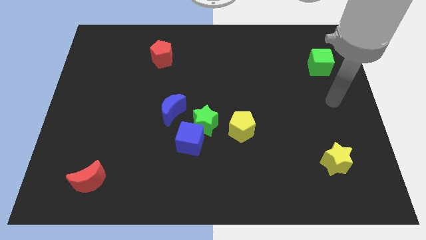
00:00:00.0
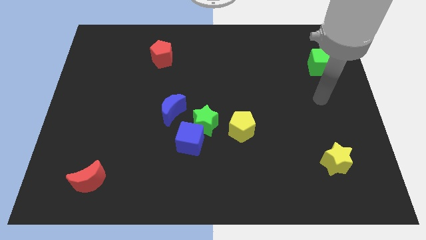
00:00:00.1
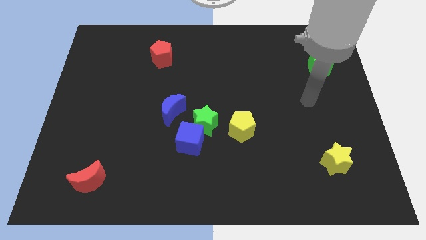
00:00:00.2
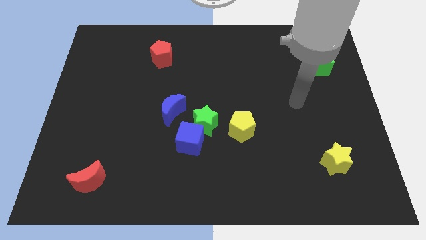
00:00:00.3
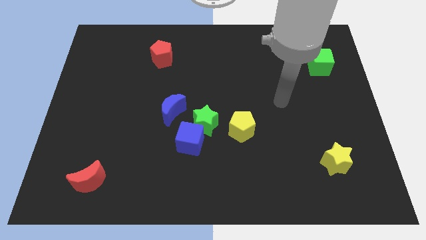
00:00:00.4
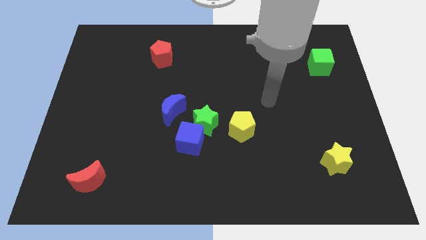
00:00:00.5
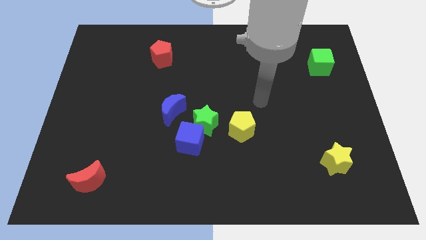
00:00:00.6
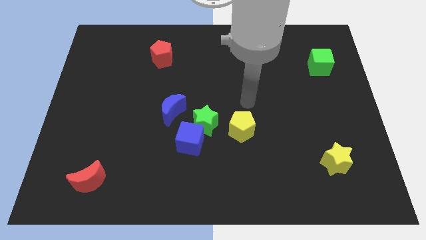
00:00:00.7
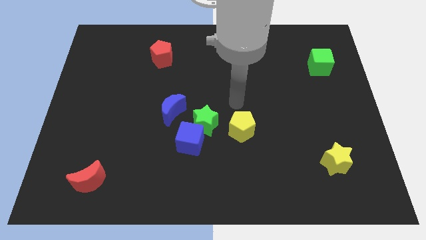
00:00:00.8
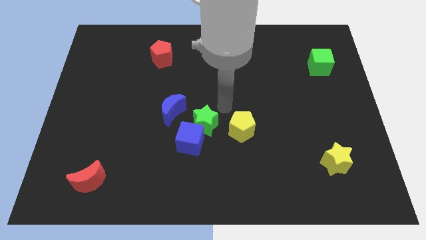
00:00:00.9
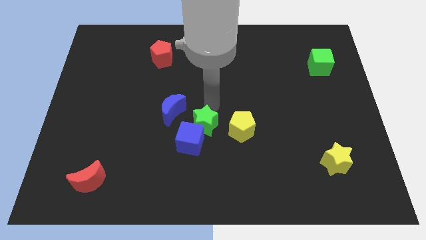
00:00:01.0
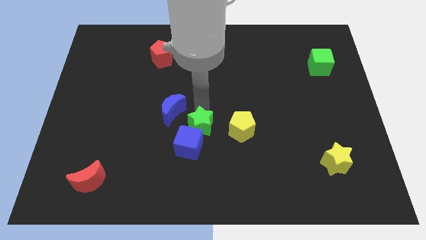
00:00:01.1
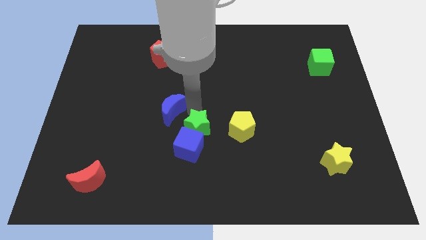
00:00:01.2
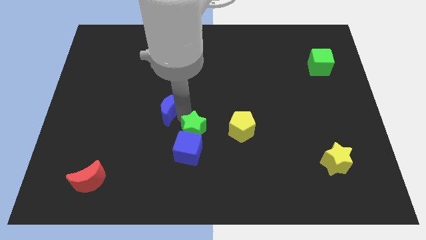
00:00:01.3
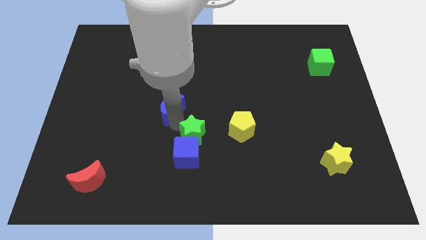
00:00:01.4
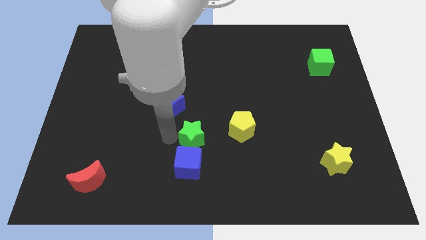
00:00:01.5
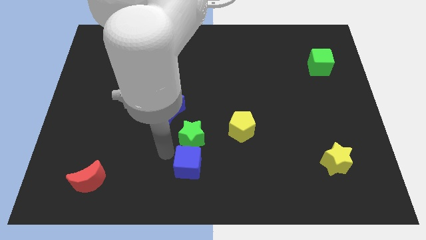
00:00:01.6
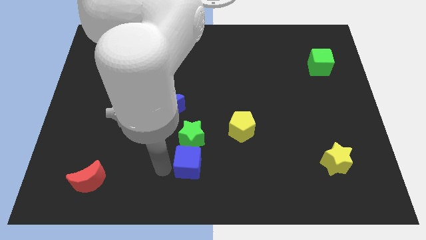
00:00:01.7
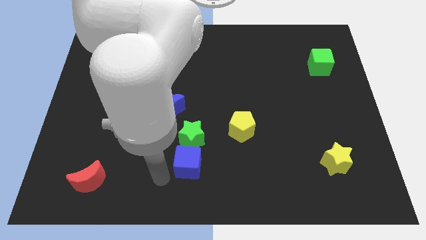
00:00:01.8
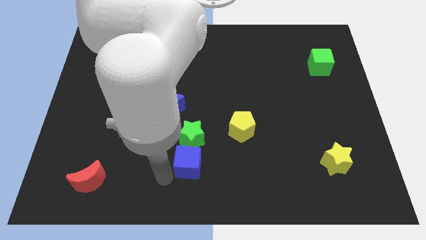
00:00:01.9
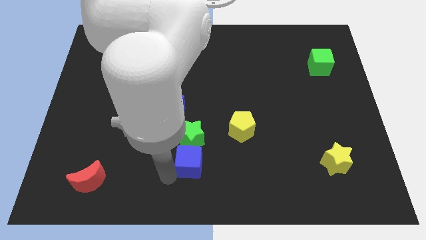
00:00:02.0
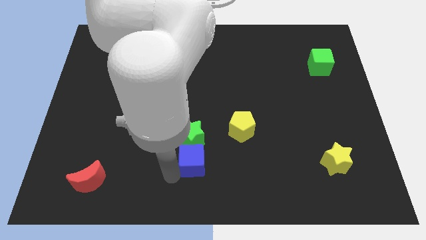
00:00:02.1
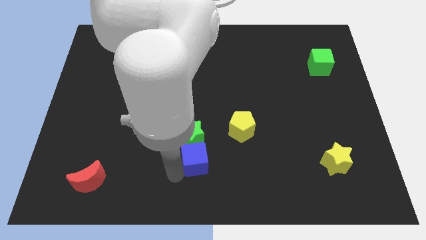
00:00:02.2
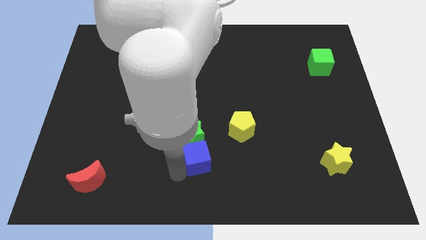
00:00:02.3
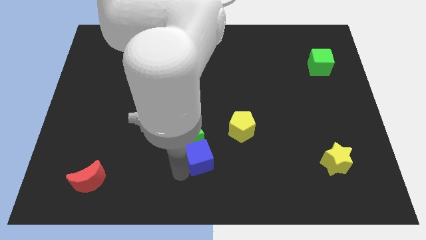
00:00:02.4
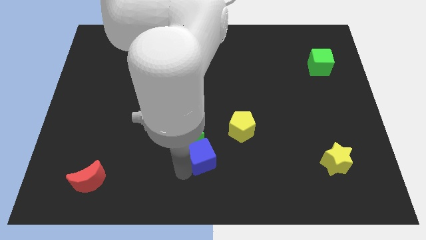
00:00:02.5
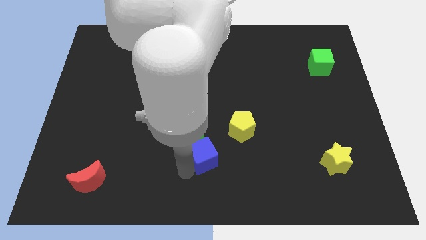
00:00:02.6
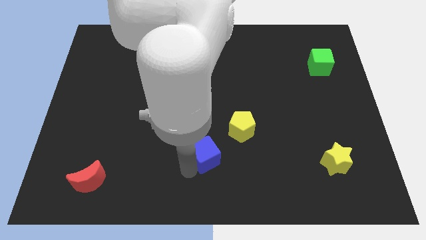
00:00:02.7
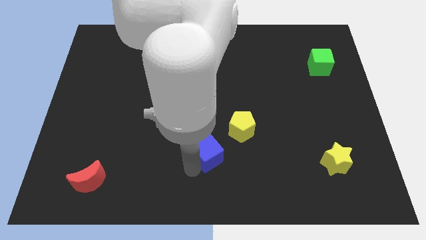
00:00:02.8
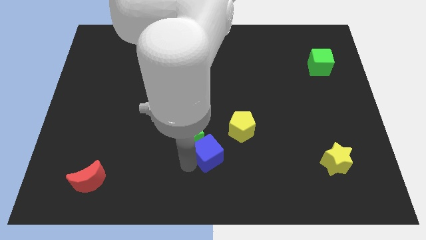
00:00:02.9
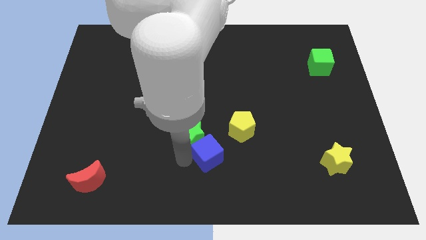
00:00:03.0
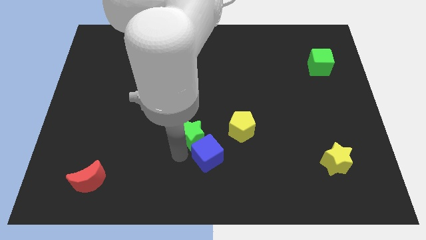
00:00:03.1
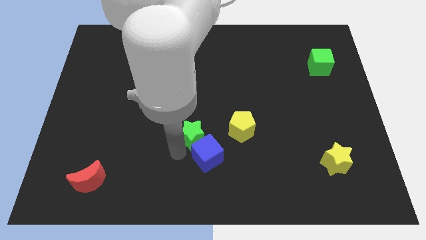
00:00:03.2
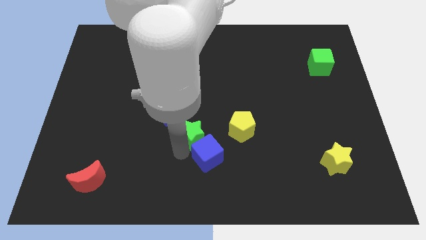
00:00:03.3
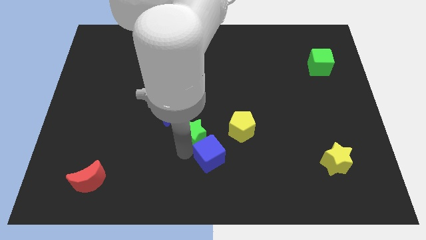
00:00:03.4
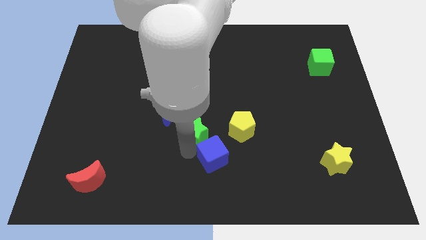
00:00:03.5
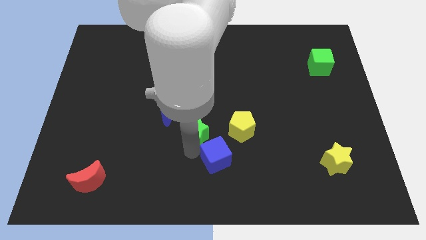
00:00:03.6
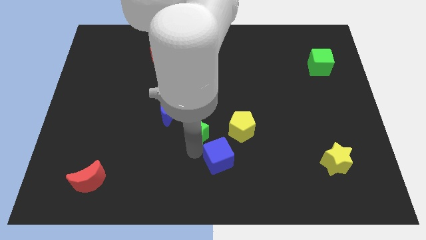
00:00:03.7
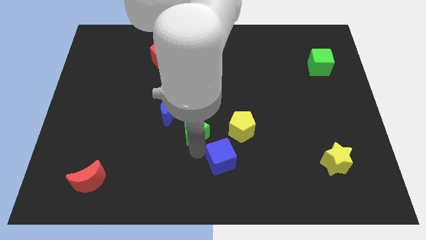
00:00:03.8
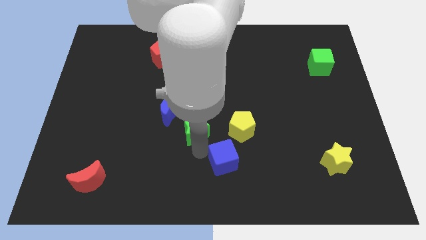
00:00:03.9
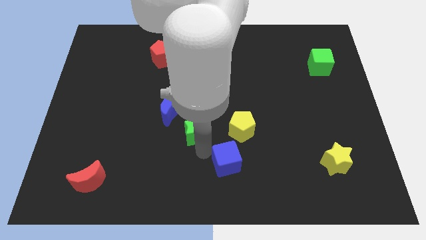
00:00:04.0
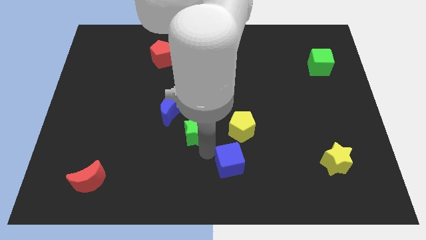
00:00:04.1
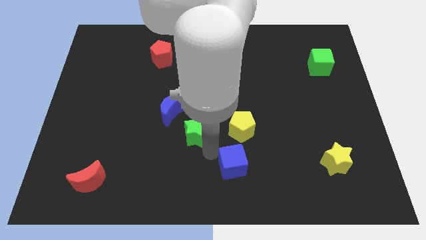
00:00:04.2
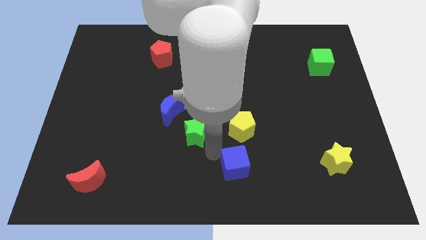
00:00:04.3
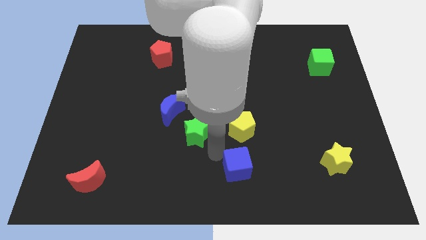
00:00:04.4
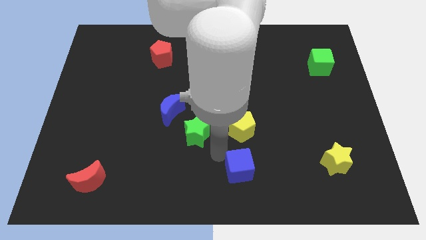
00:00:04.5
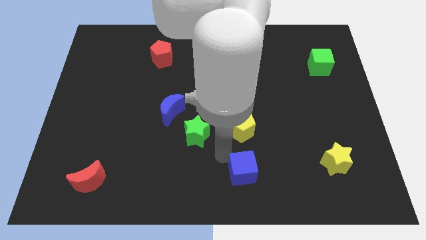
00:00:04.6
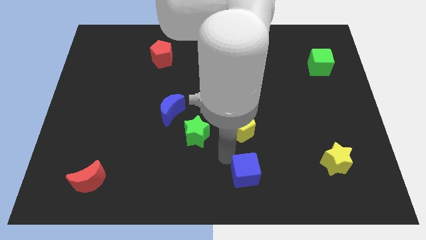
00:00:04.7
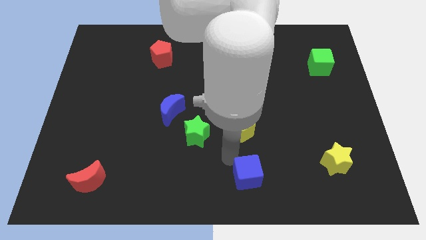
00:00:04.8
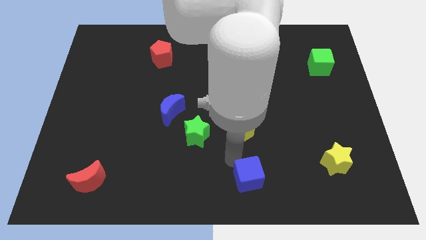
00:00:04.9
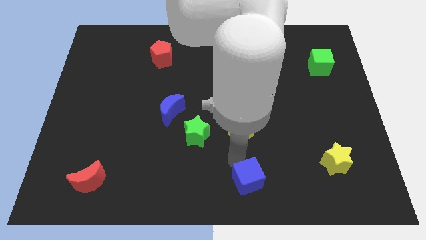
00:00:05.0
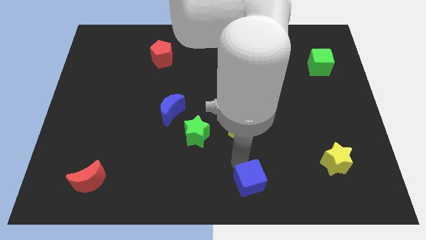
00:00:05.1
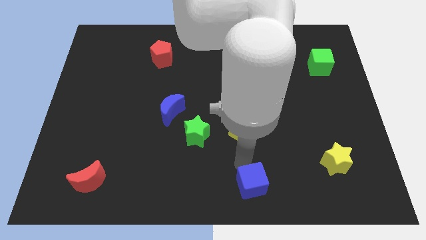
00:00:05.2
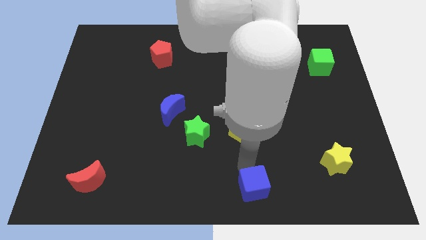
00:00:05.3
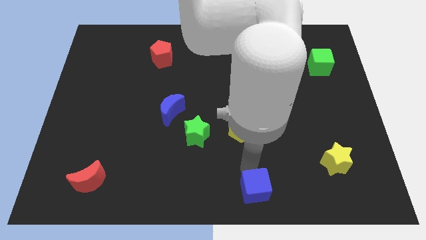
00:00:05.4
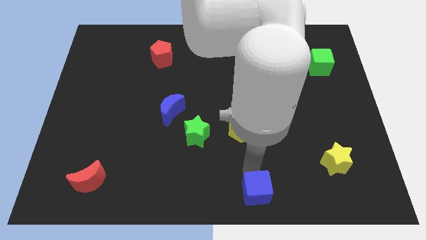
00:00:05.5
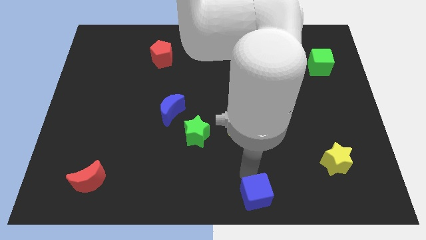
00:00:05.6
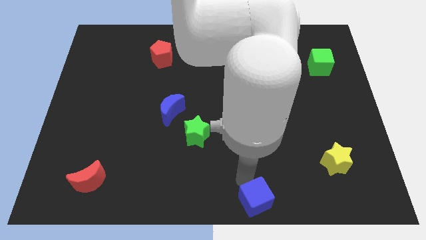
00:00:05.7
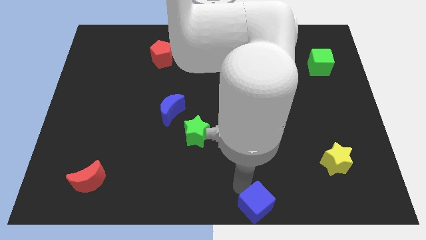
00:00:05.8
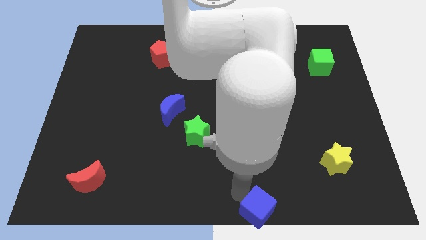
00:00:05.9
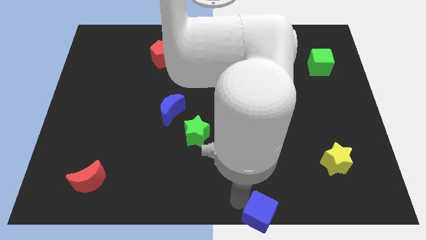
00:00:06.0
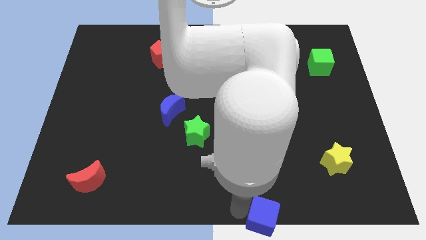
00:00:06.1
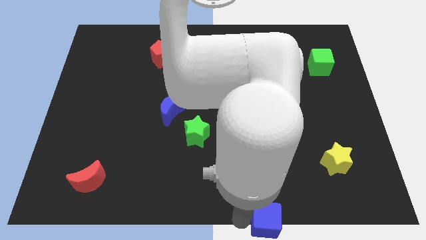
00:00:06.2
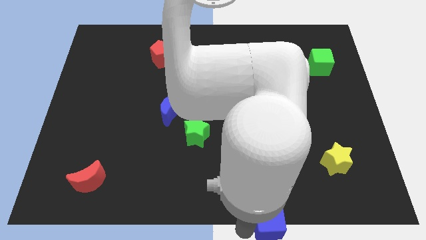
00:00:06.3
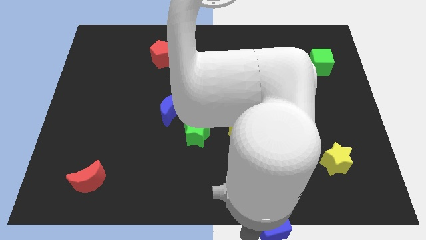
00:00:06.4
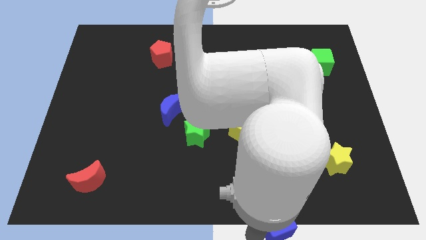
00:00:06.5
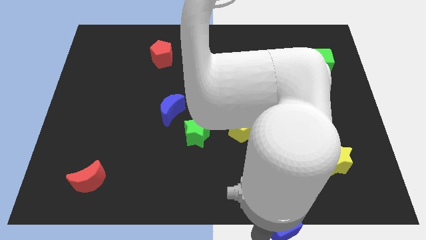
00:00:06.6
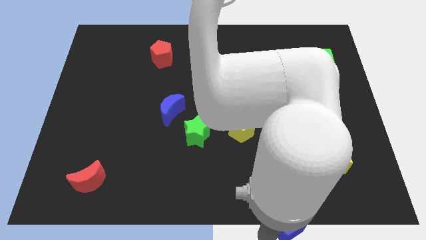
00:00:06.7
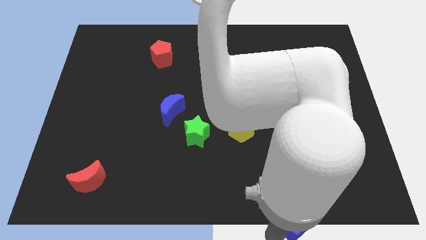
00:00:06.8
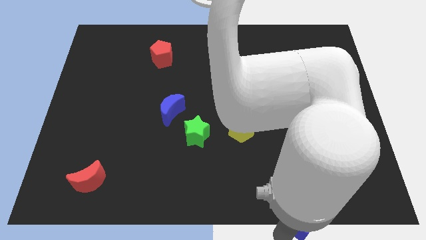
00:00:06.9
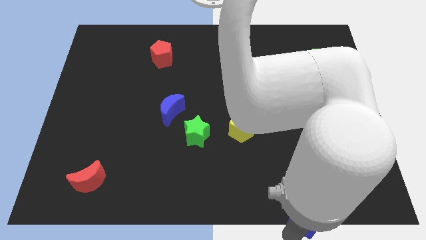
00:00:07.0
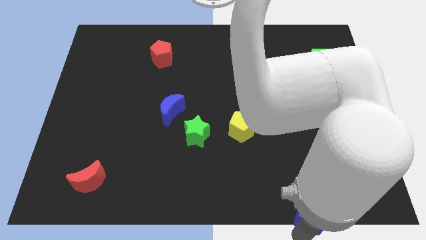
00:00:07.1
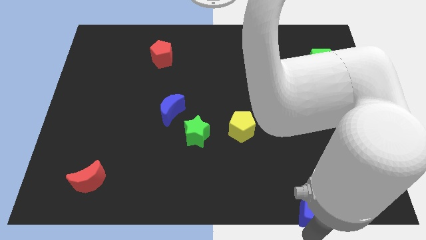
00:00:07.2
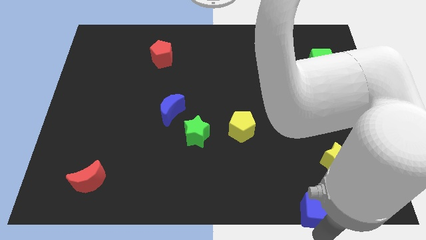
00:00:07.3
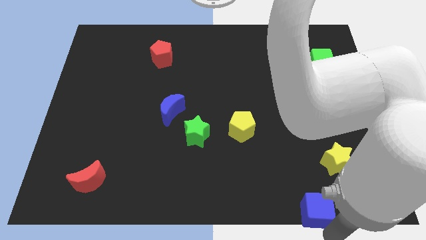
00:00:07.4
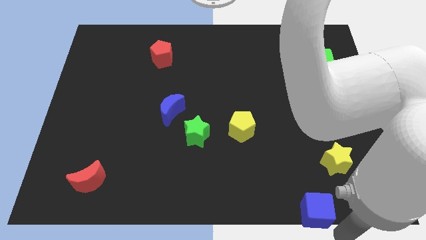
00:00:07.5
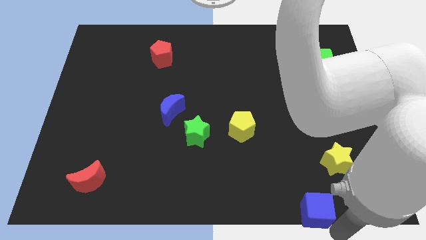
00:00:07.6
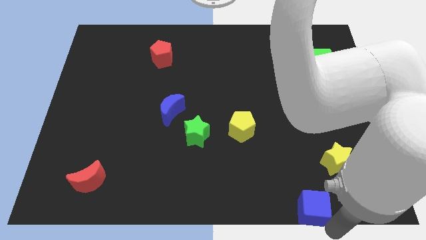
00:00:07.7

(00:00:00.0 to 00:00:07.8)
slide the blue cube to the bottom left of the yellow star
